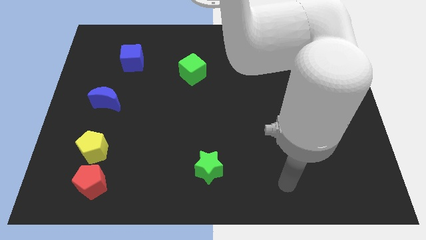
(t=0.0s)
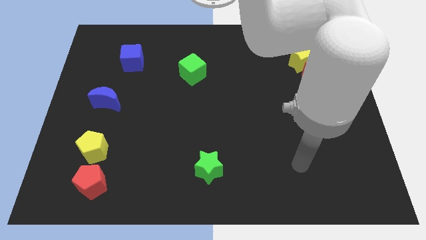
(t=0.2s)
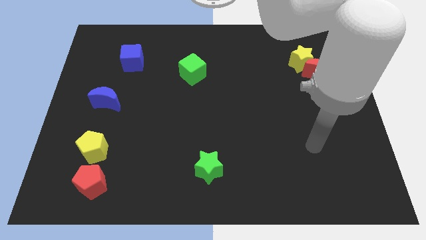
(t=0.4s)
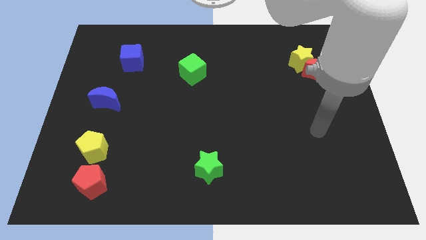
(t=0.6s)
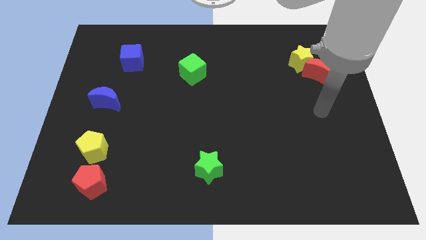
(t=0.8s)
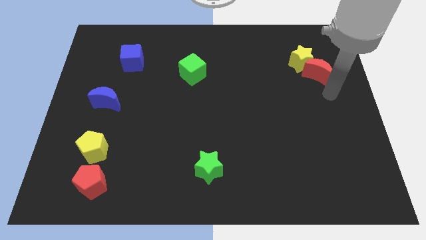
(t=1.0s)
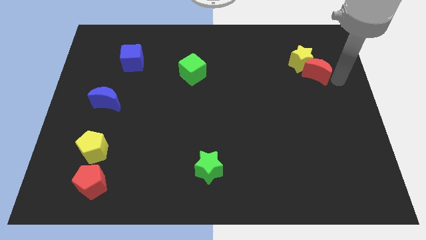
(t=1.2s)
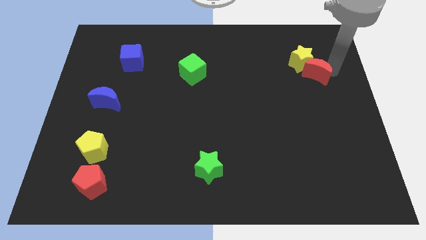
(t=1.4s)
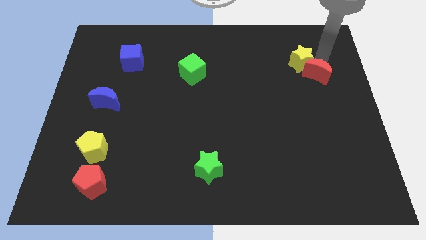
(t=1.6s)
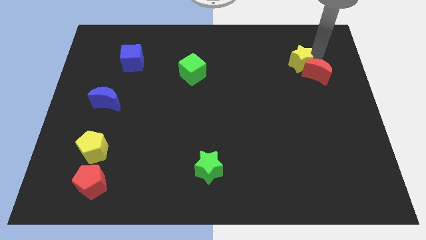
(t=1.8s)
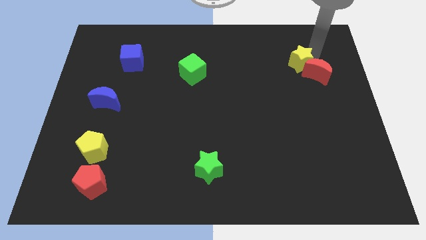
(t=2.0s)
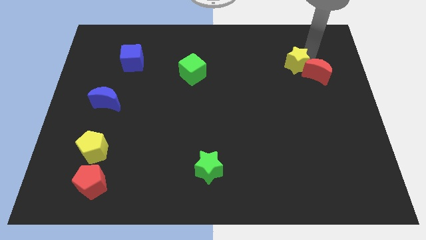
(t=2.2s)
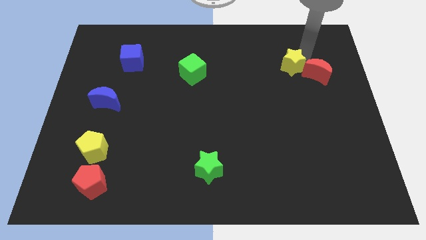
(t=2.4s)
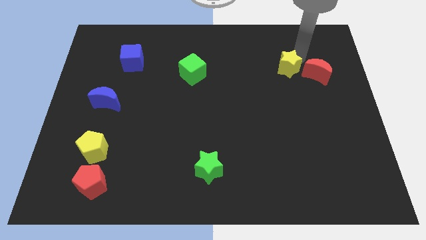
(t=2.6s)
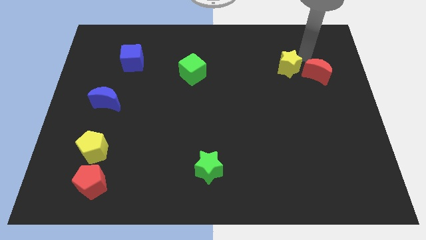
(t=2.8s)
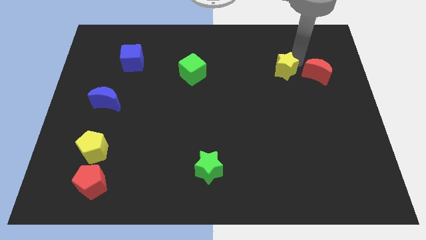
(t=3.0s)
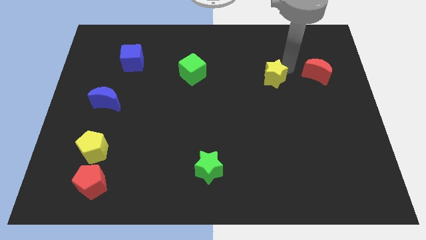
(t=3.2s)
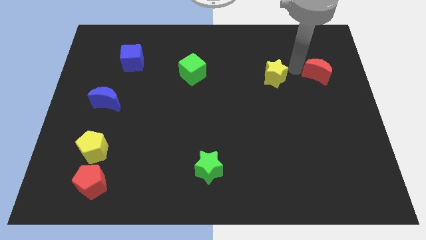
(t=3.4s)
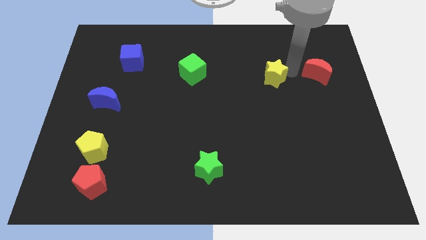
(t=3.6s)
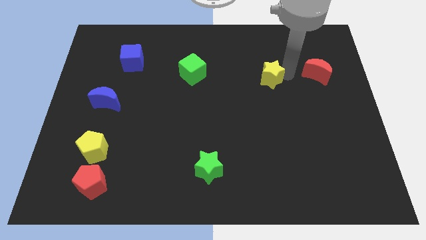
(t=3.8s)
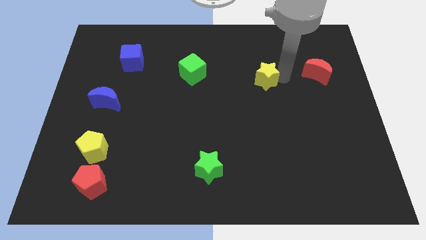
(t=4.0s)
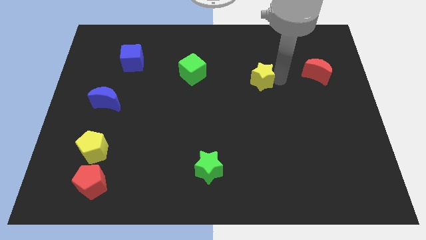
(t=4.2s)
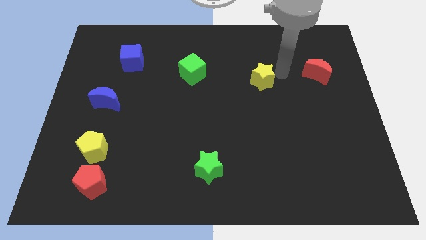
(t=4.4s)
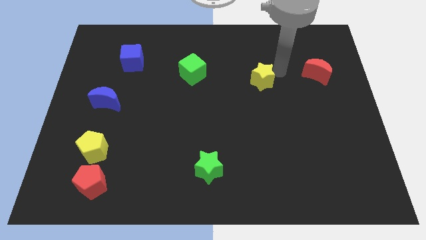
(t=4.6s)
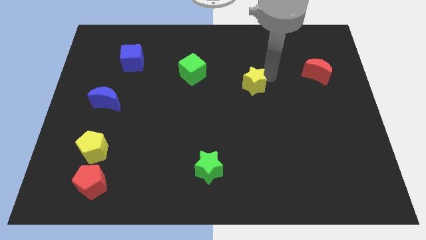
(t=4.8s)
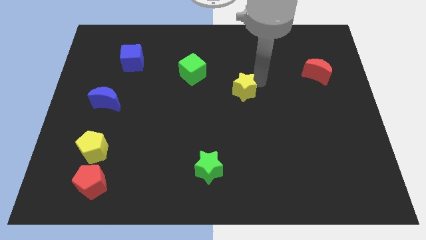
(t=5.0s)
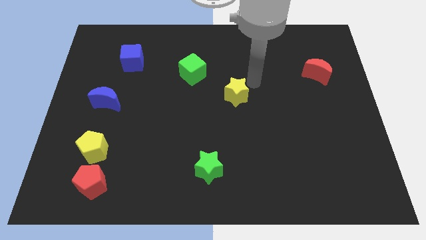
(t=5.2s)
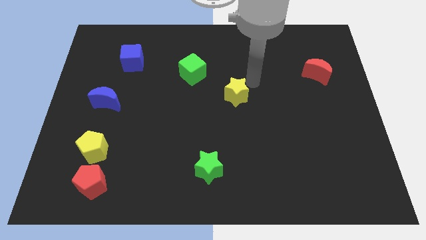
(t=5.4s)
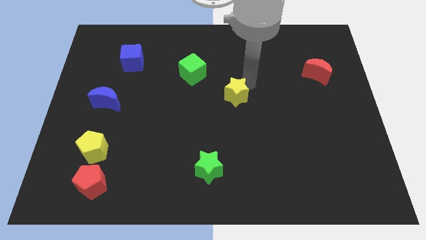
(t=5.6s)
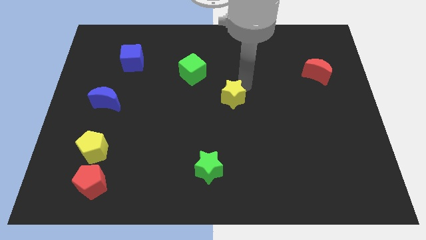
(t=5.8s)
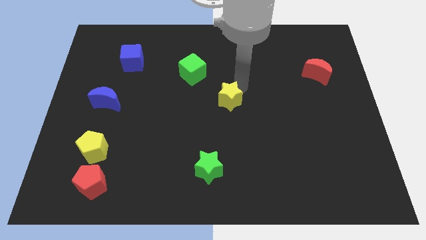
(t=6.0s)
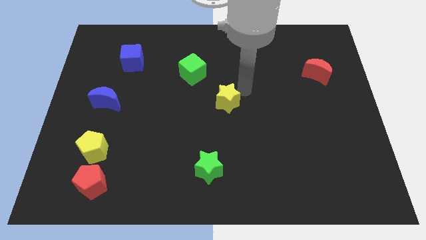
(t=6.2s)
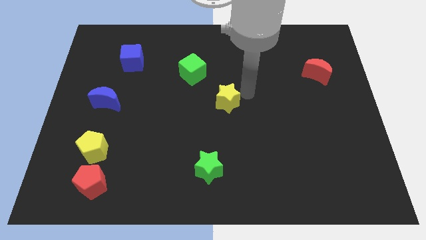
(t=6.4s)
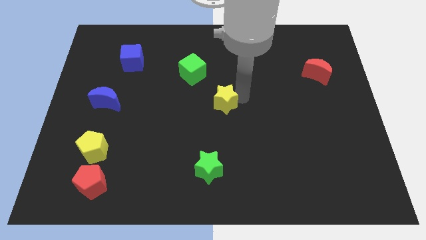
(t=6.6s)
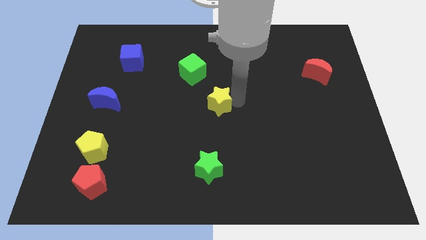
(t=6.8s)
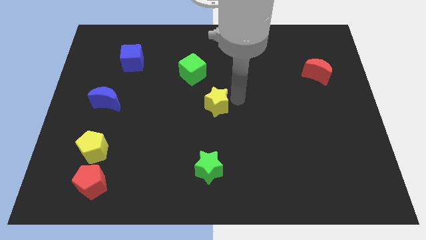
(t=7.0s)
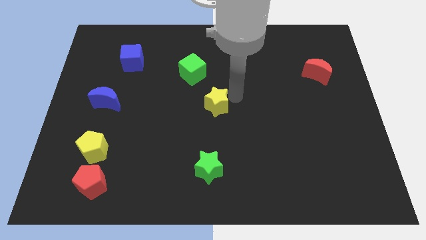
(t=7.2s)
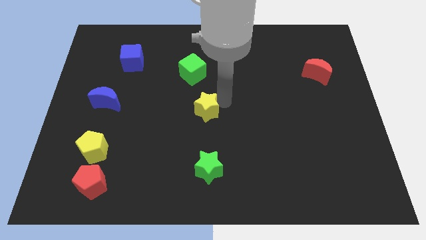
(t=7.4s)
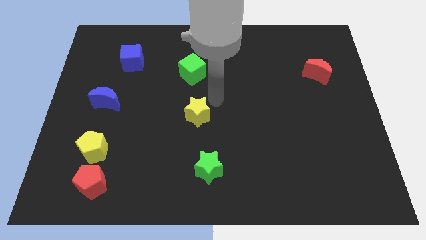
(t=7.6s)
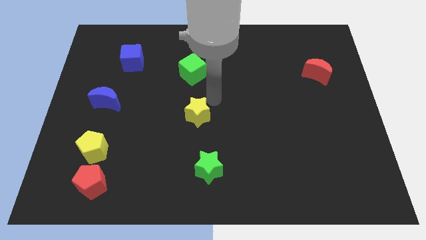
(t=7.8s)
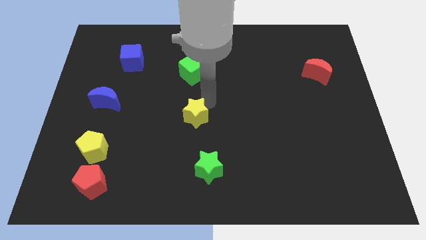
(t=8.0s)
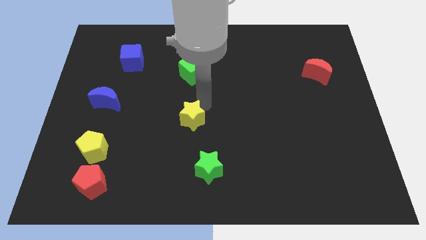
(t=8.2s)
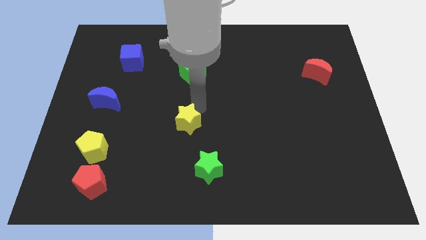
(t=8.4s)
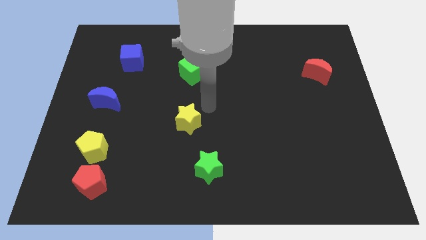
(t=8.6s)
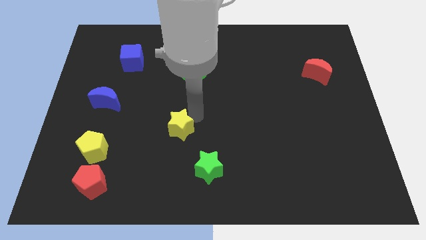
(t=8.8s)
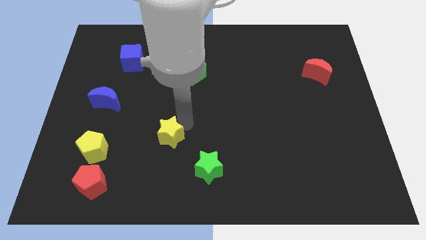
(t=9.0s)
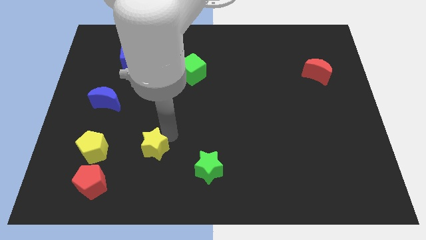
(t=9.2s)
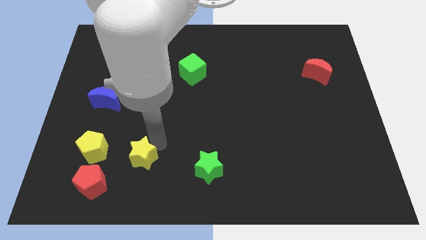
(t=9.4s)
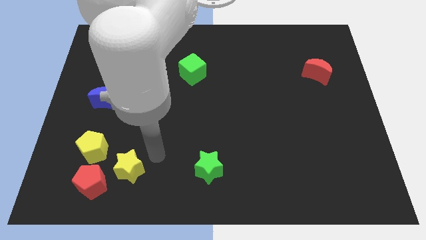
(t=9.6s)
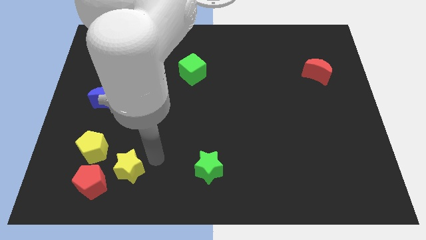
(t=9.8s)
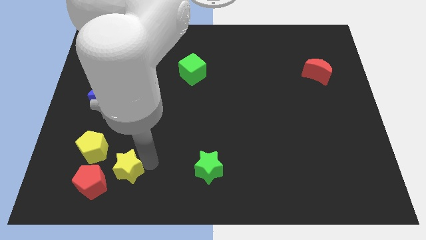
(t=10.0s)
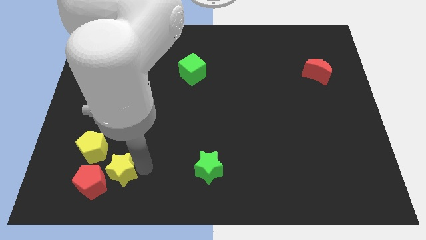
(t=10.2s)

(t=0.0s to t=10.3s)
put the yellow star to the red pentagon

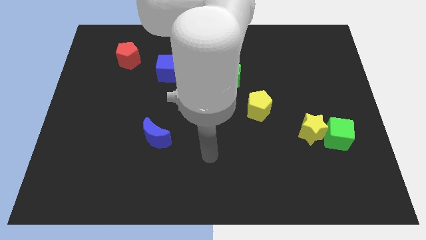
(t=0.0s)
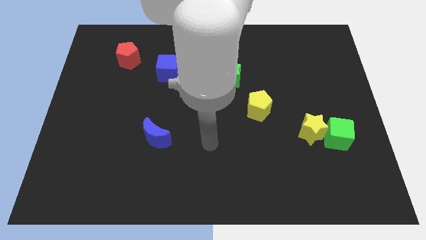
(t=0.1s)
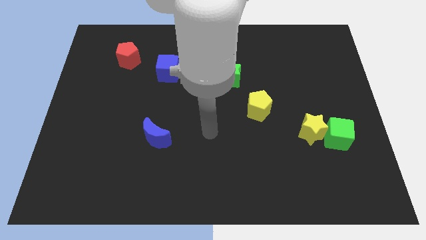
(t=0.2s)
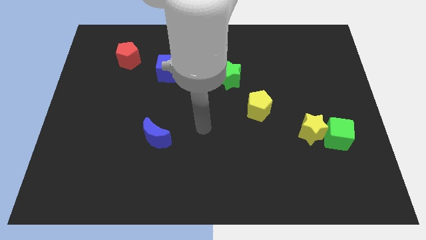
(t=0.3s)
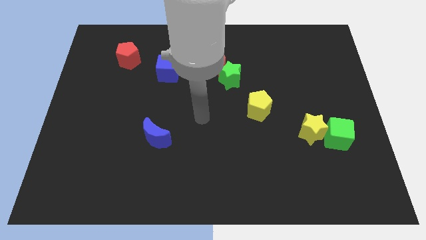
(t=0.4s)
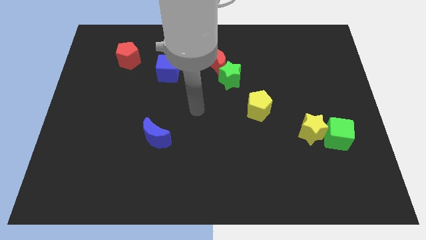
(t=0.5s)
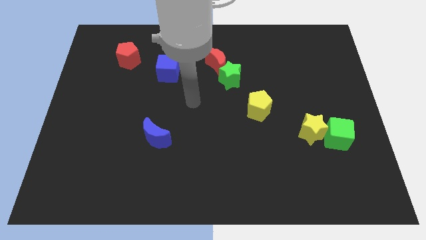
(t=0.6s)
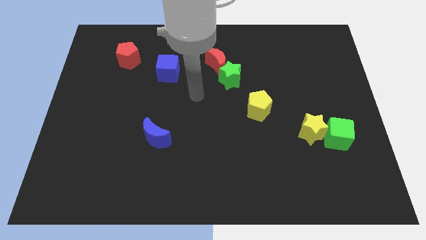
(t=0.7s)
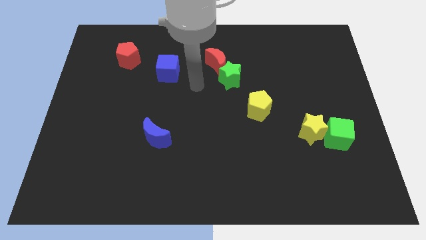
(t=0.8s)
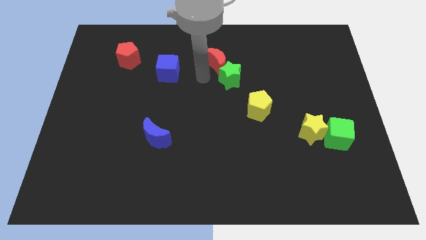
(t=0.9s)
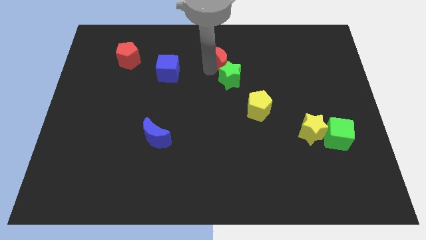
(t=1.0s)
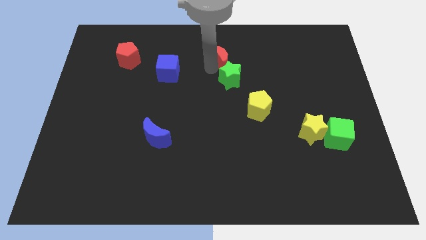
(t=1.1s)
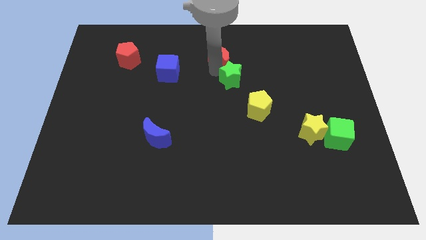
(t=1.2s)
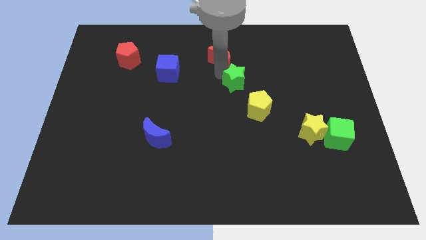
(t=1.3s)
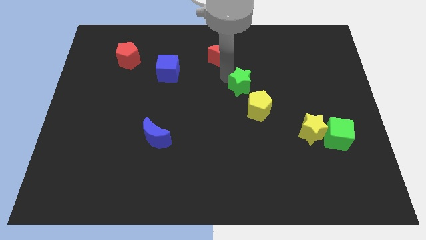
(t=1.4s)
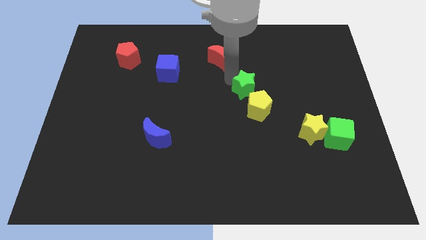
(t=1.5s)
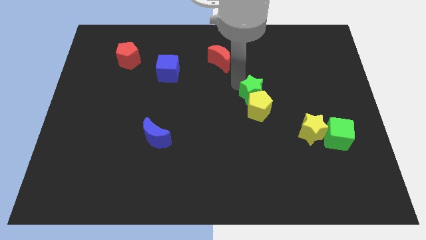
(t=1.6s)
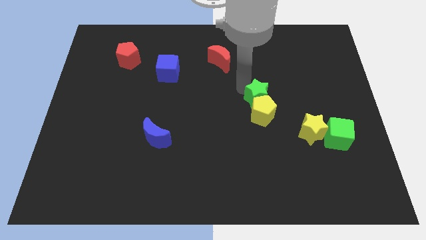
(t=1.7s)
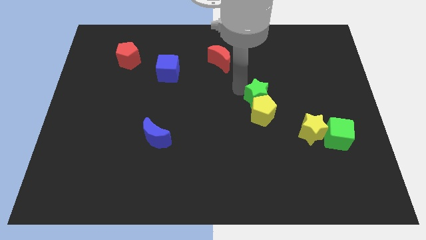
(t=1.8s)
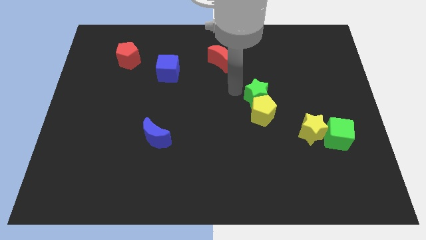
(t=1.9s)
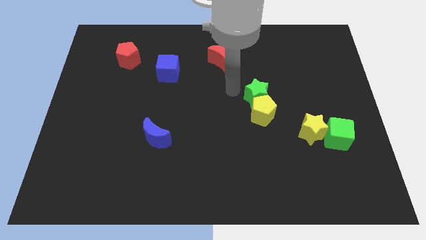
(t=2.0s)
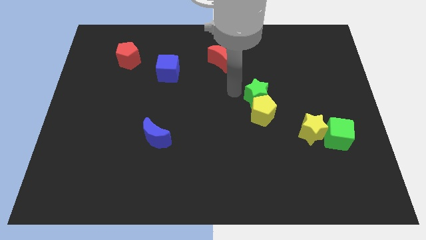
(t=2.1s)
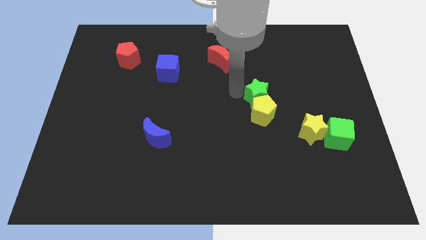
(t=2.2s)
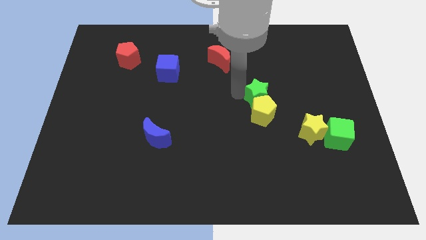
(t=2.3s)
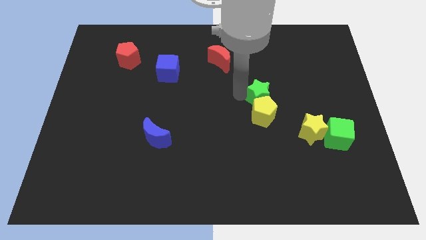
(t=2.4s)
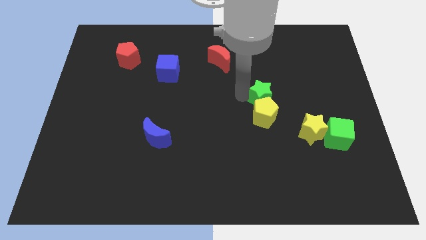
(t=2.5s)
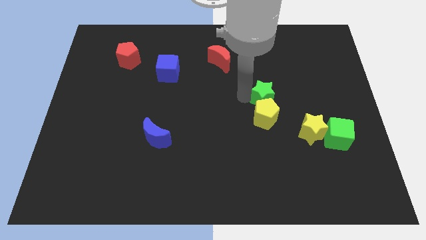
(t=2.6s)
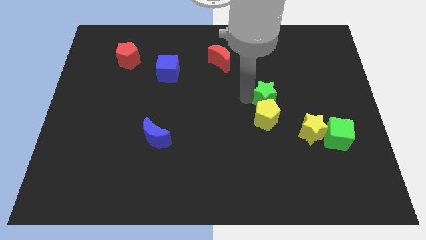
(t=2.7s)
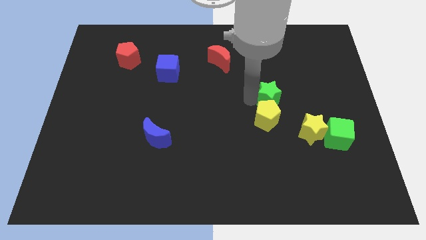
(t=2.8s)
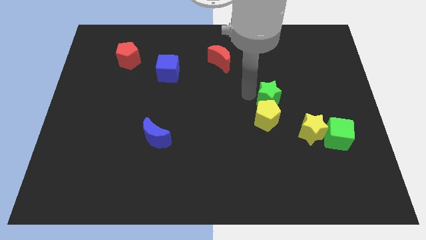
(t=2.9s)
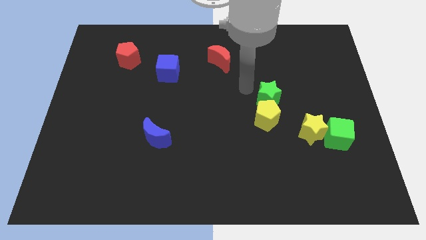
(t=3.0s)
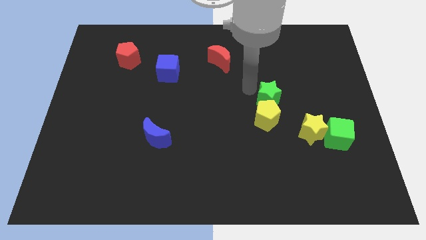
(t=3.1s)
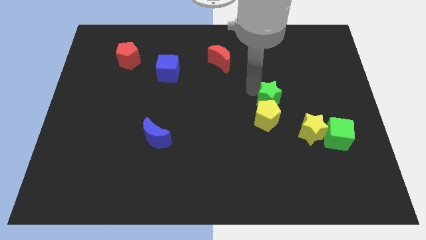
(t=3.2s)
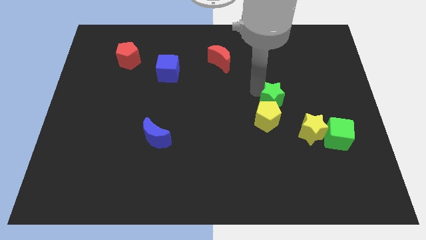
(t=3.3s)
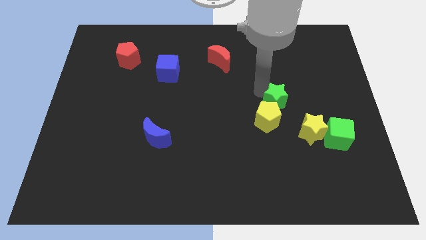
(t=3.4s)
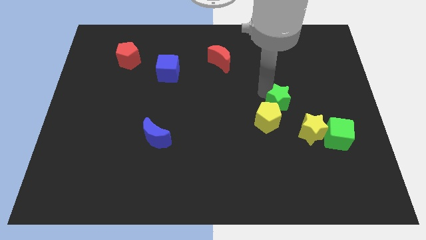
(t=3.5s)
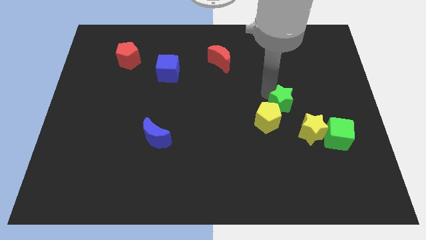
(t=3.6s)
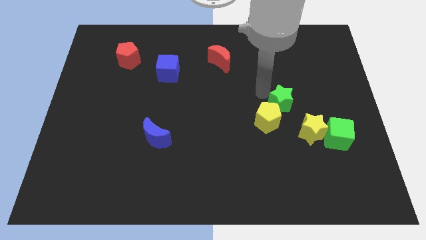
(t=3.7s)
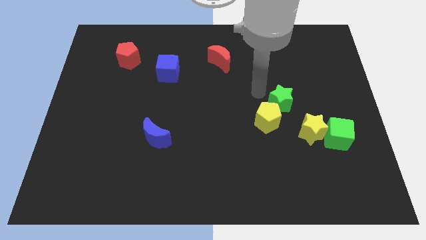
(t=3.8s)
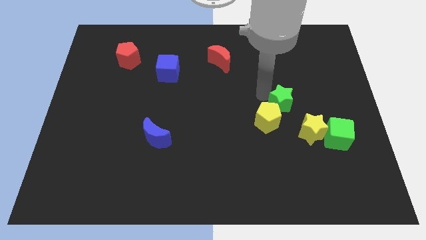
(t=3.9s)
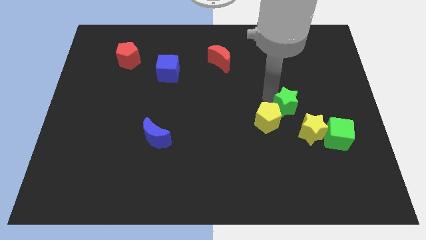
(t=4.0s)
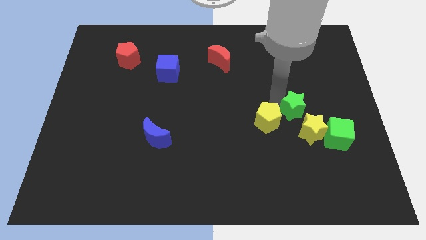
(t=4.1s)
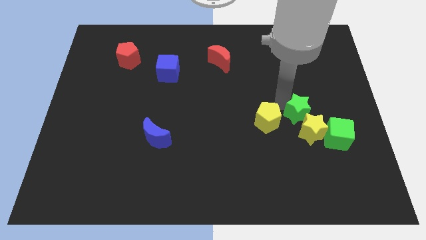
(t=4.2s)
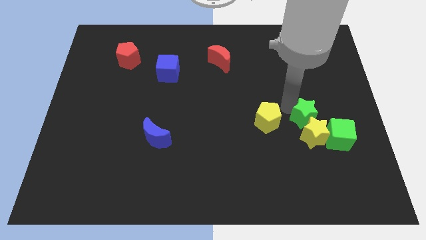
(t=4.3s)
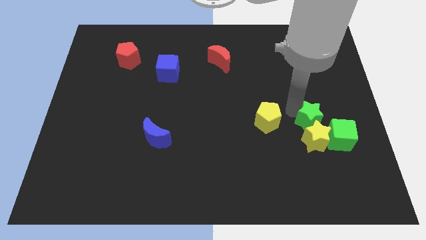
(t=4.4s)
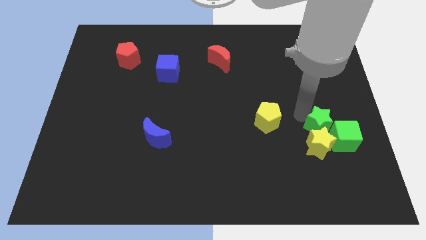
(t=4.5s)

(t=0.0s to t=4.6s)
move the green star to the green cube
